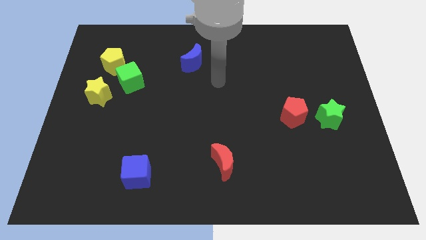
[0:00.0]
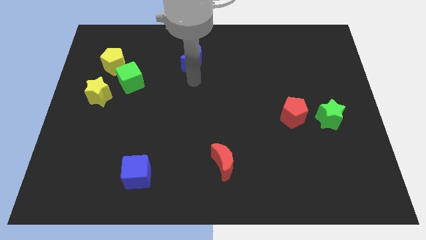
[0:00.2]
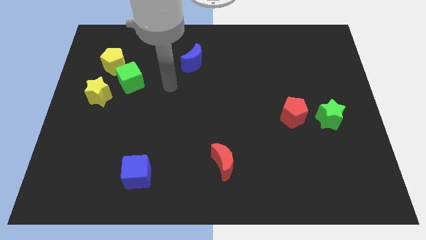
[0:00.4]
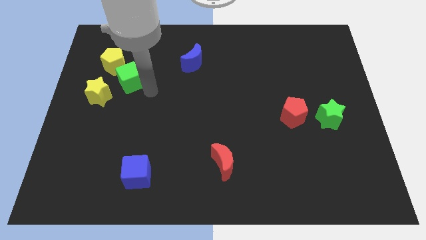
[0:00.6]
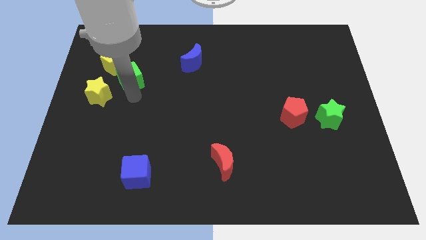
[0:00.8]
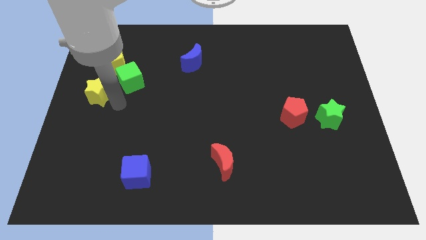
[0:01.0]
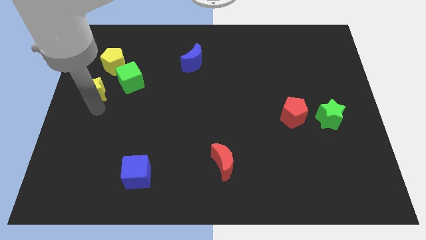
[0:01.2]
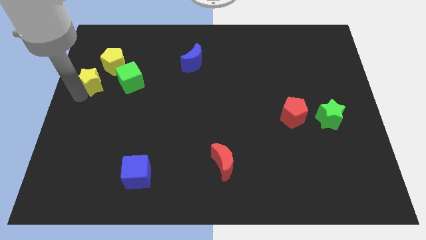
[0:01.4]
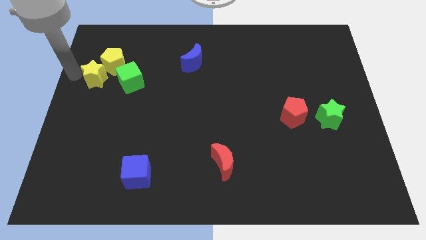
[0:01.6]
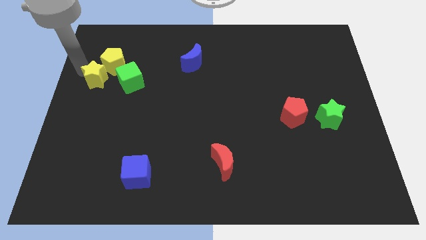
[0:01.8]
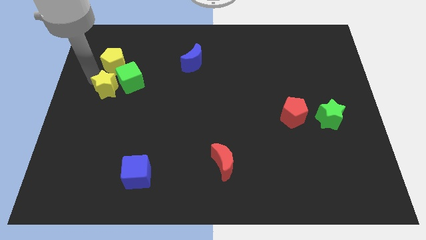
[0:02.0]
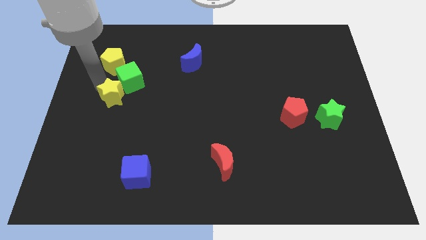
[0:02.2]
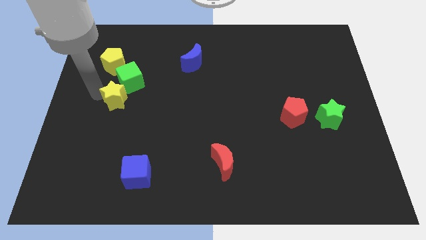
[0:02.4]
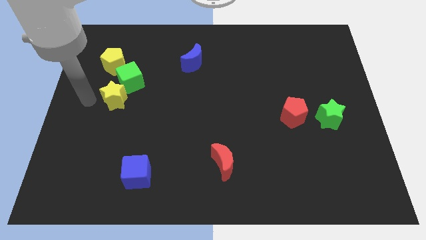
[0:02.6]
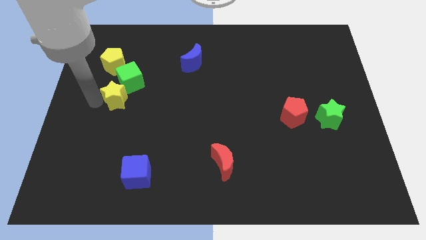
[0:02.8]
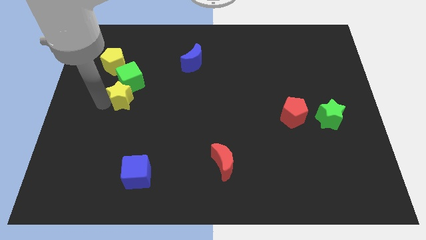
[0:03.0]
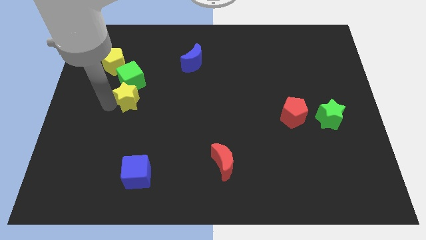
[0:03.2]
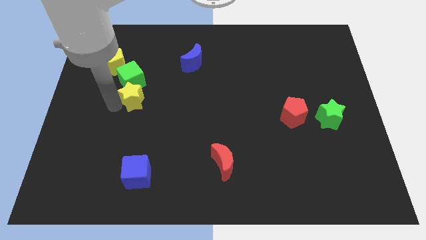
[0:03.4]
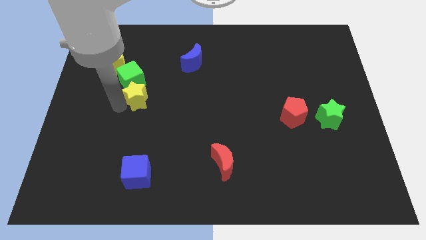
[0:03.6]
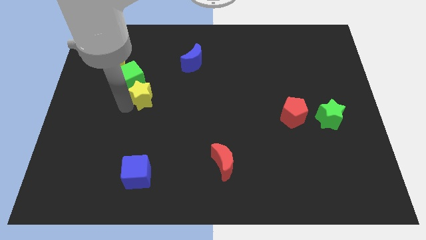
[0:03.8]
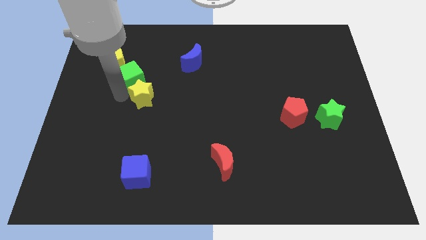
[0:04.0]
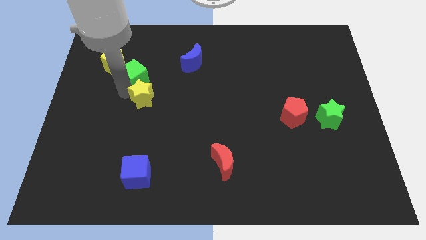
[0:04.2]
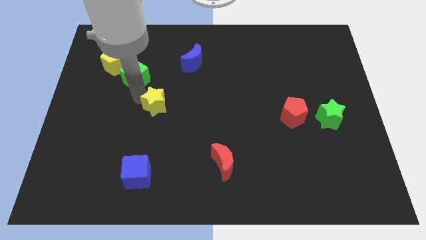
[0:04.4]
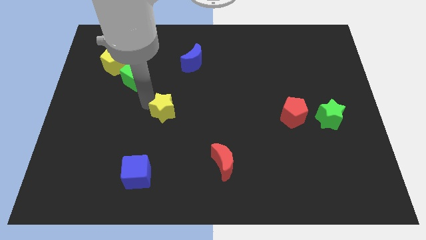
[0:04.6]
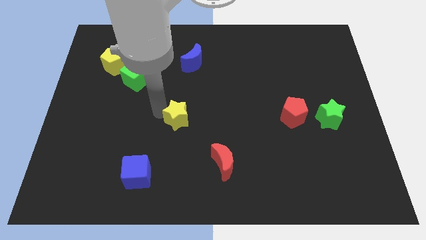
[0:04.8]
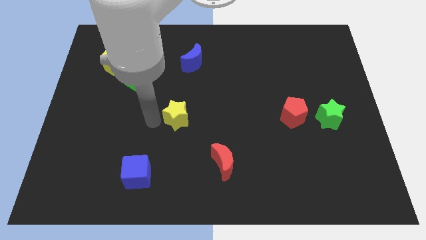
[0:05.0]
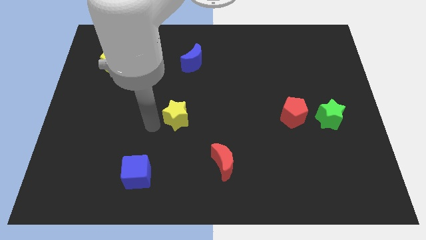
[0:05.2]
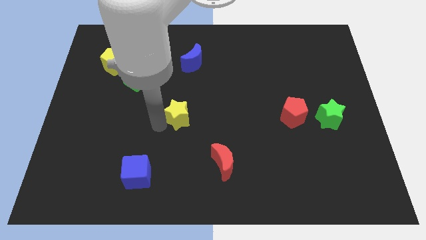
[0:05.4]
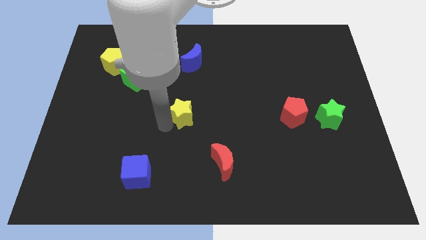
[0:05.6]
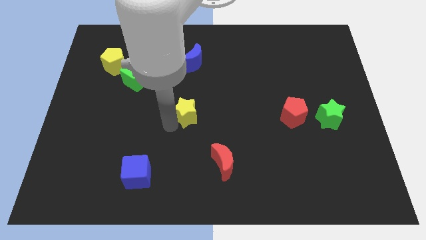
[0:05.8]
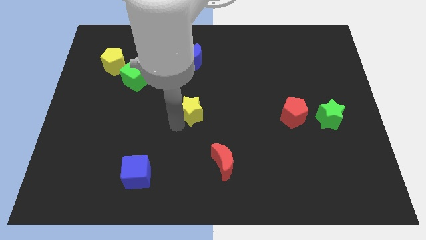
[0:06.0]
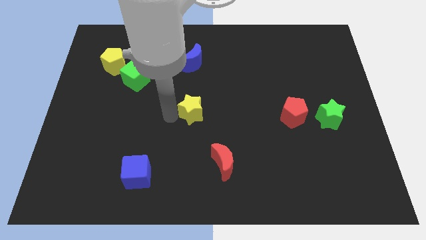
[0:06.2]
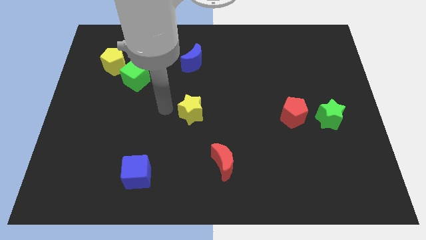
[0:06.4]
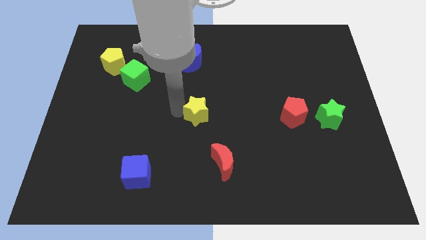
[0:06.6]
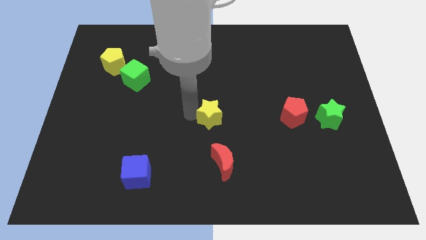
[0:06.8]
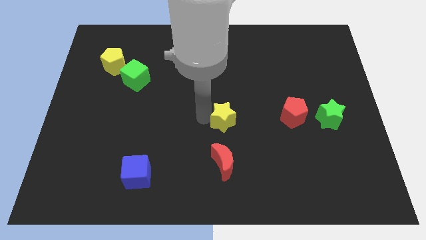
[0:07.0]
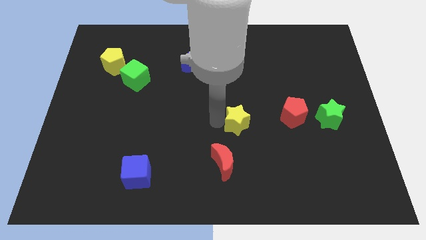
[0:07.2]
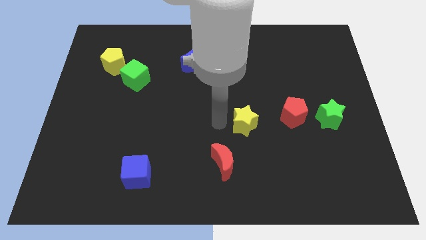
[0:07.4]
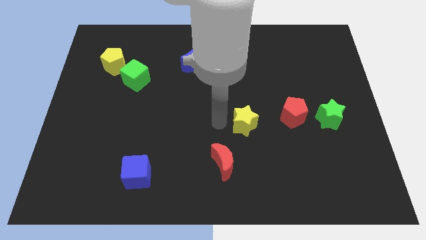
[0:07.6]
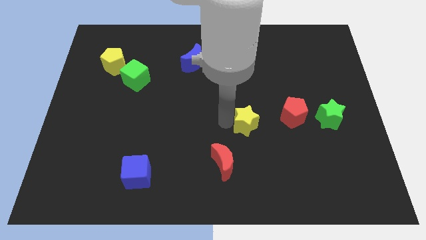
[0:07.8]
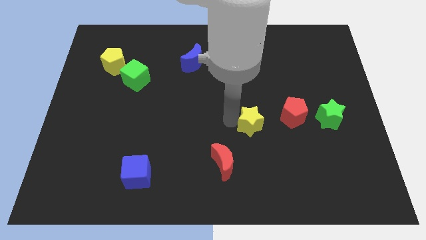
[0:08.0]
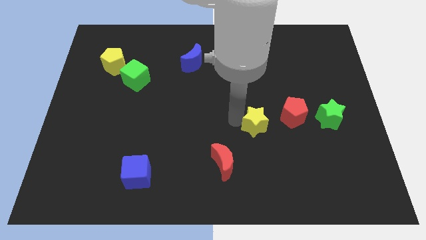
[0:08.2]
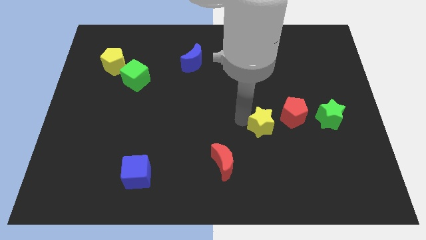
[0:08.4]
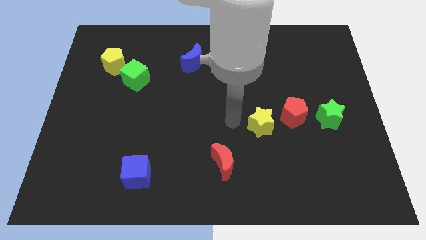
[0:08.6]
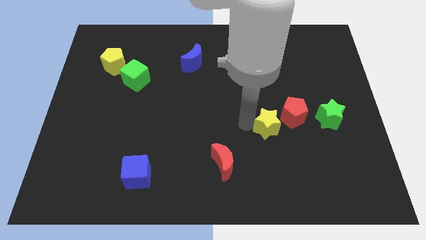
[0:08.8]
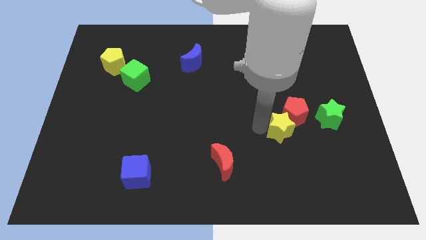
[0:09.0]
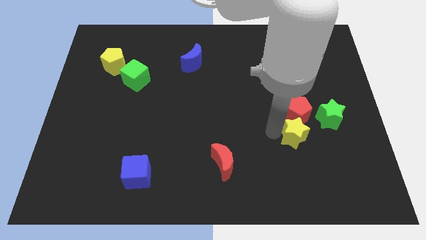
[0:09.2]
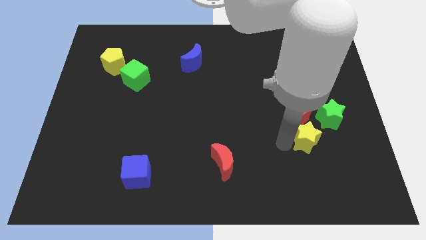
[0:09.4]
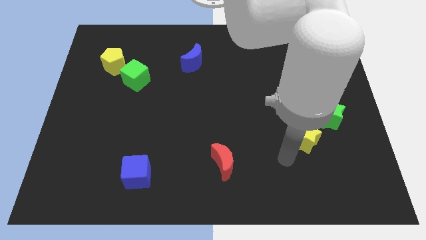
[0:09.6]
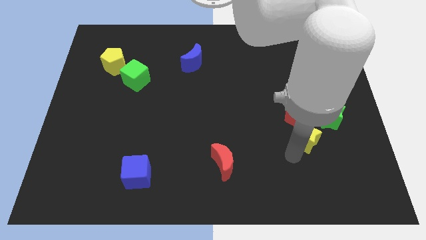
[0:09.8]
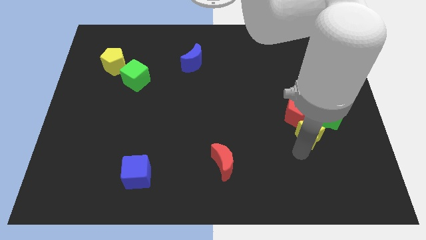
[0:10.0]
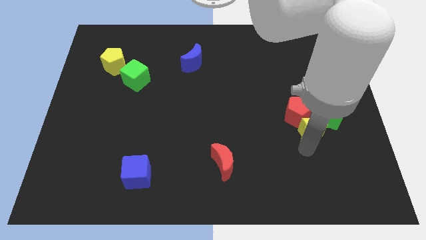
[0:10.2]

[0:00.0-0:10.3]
put the yellow star towards the green star

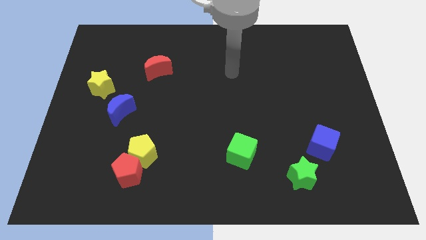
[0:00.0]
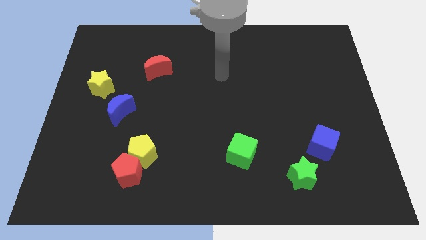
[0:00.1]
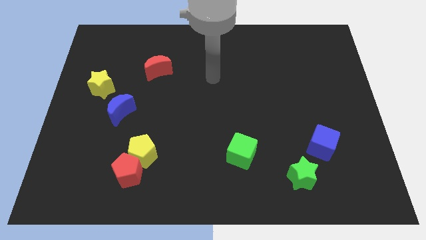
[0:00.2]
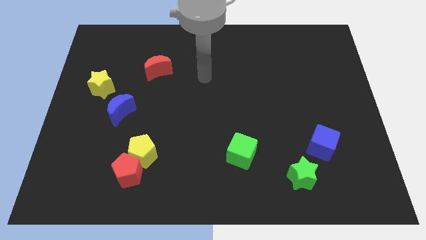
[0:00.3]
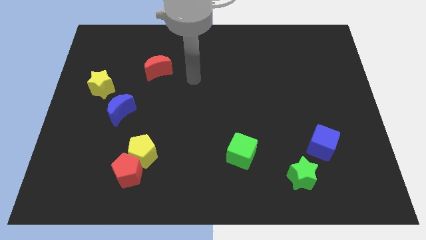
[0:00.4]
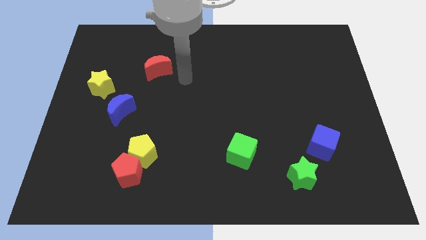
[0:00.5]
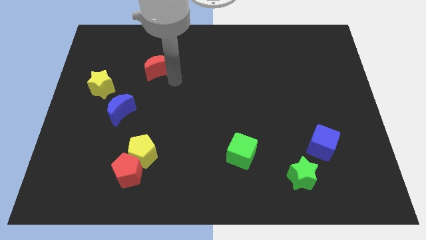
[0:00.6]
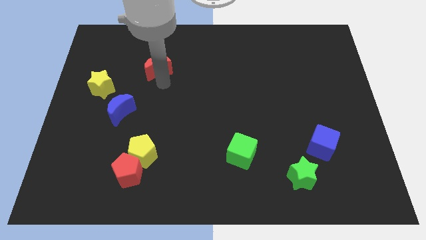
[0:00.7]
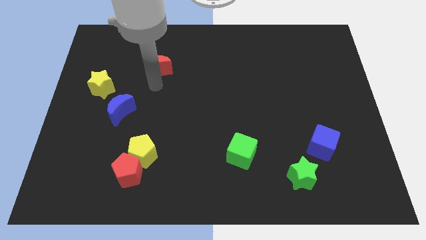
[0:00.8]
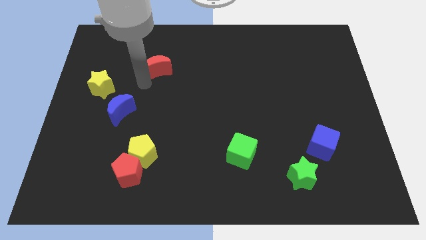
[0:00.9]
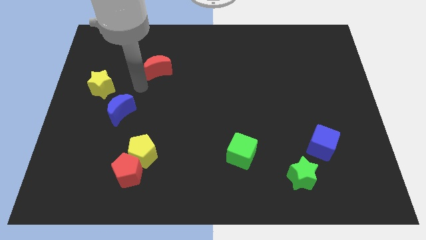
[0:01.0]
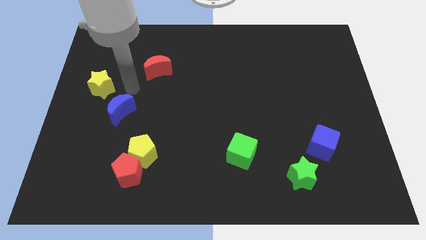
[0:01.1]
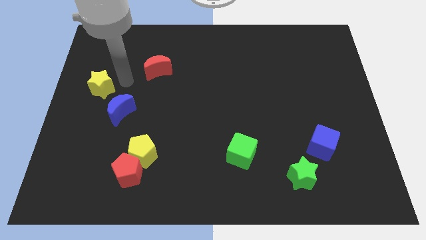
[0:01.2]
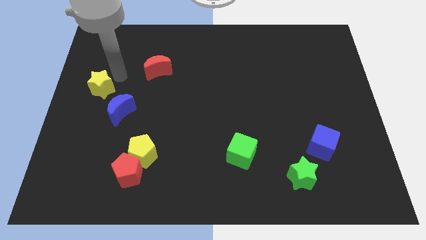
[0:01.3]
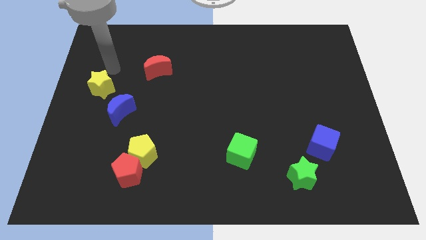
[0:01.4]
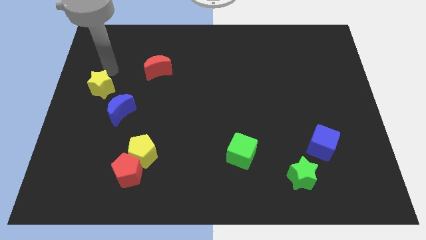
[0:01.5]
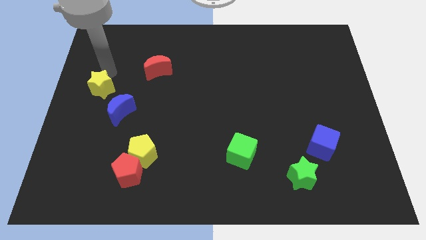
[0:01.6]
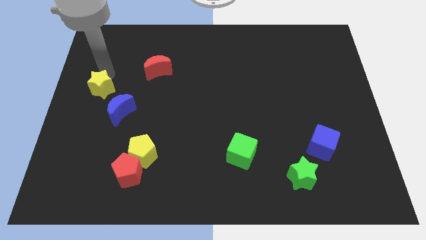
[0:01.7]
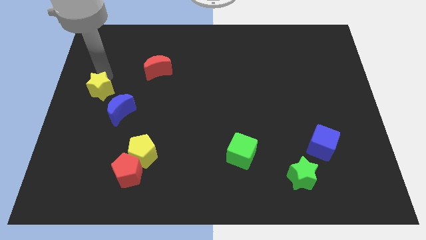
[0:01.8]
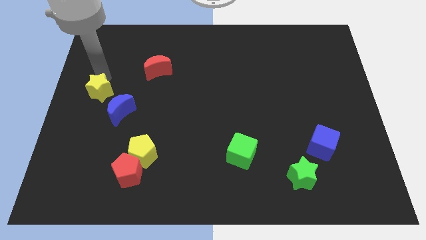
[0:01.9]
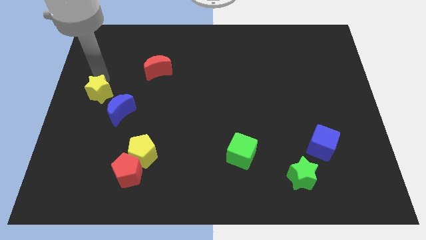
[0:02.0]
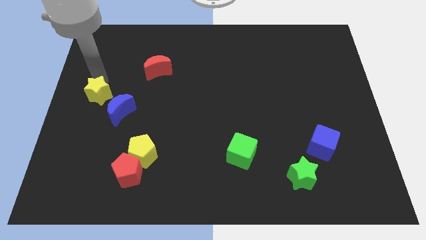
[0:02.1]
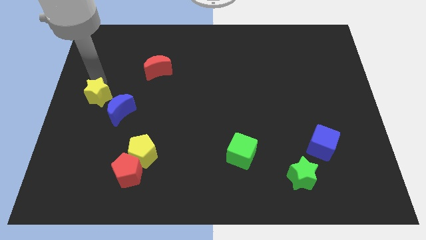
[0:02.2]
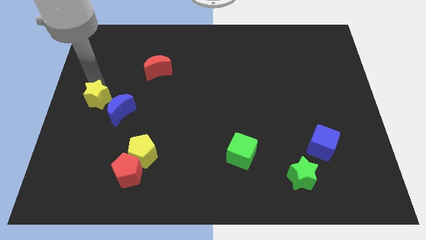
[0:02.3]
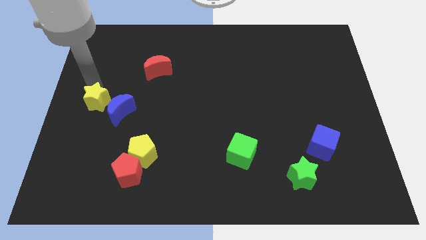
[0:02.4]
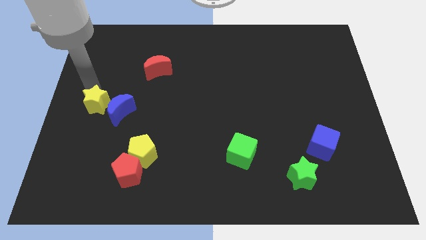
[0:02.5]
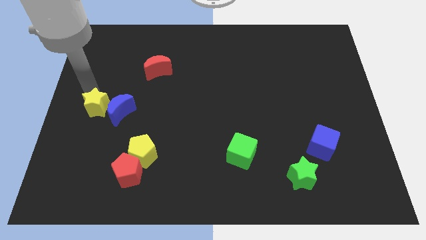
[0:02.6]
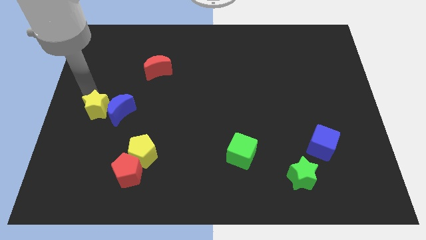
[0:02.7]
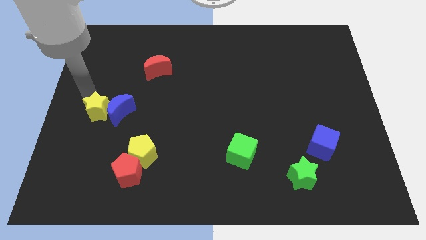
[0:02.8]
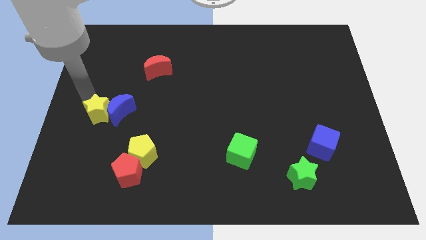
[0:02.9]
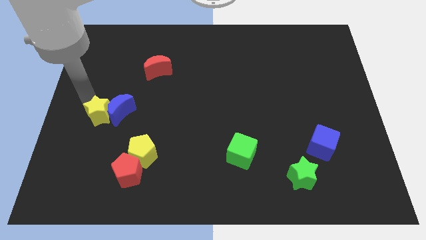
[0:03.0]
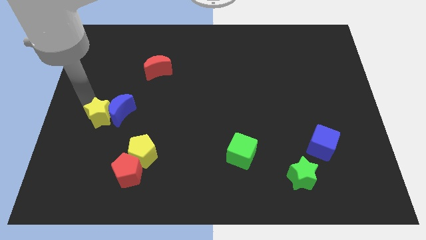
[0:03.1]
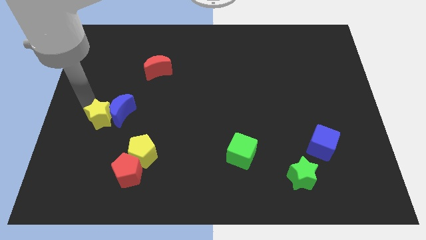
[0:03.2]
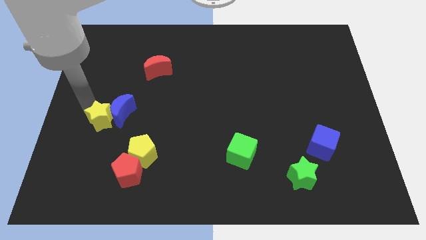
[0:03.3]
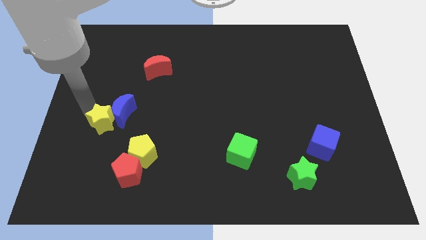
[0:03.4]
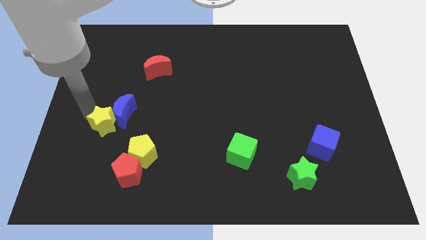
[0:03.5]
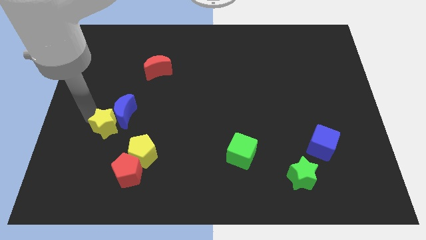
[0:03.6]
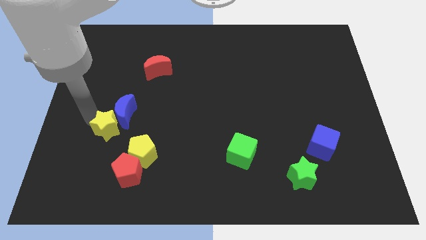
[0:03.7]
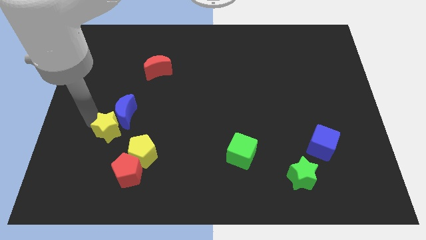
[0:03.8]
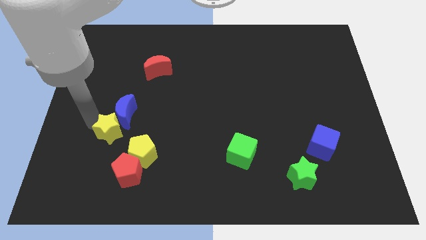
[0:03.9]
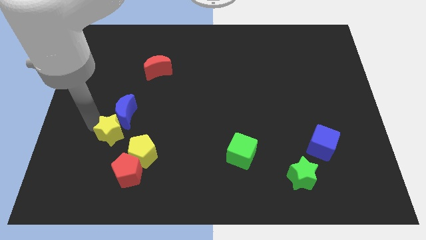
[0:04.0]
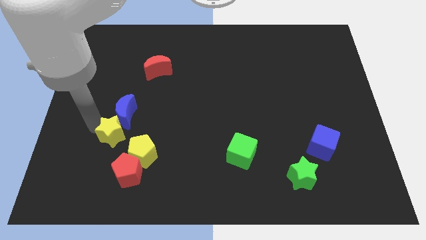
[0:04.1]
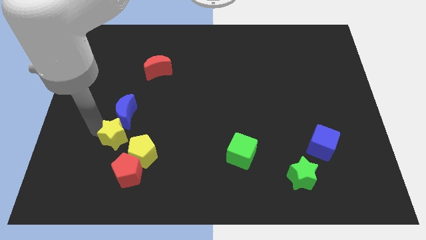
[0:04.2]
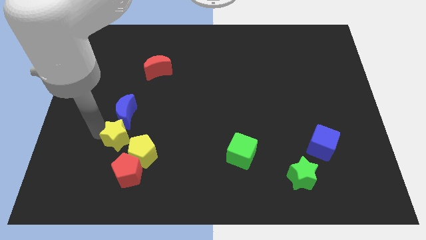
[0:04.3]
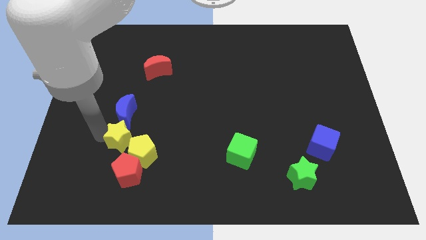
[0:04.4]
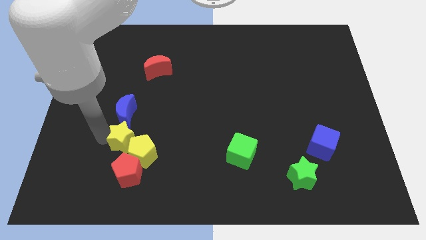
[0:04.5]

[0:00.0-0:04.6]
slide the yellow star close to the yellow pentagon
